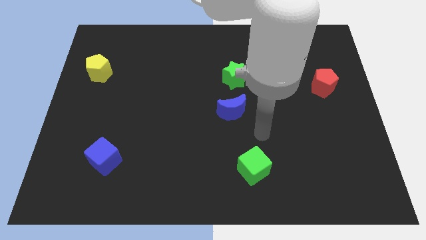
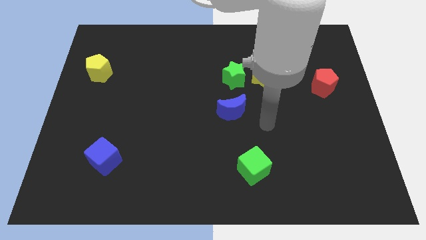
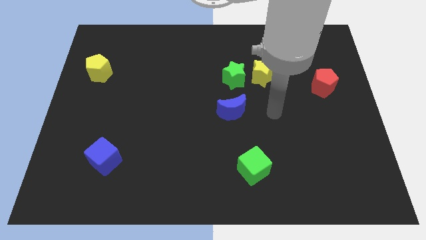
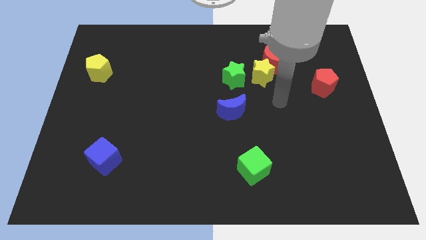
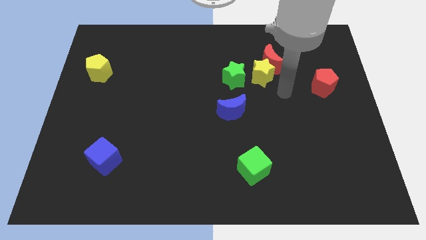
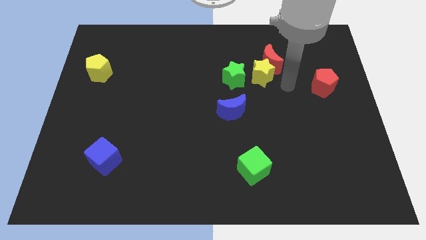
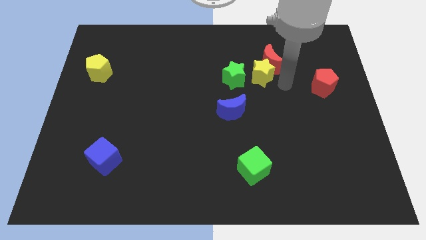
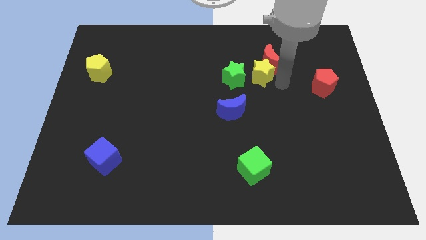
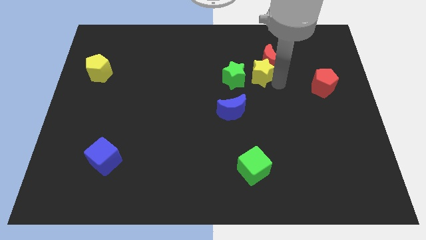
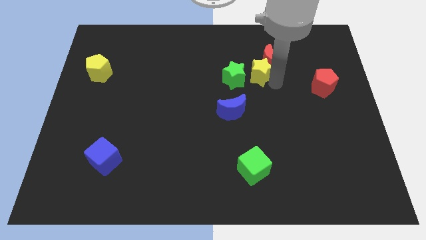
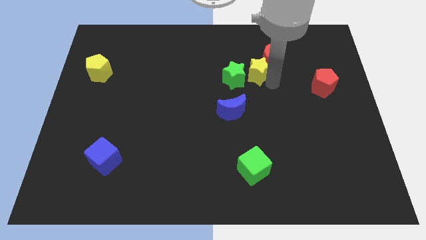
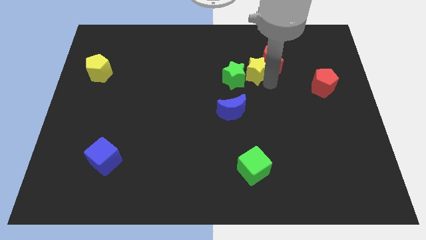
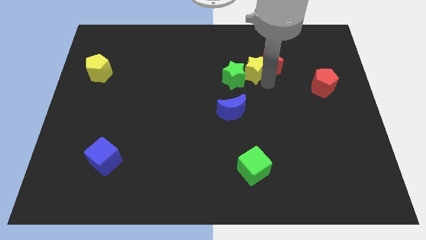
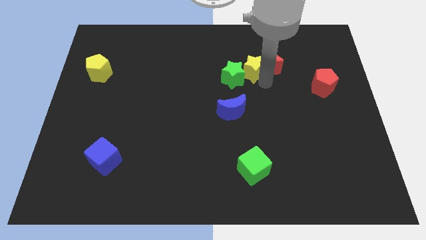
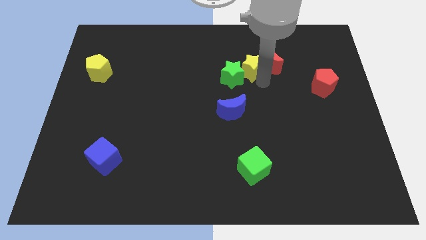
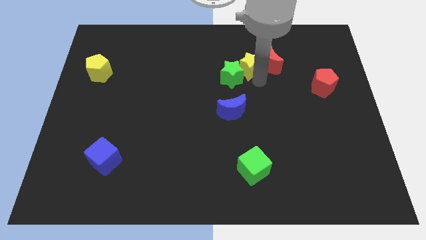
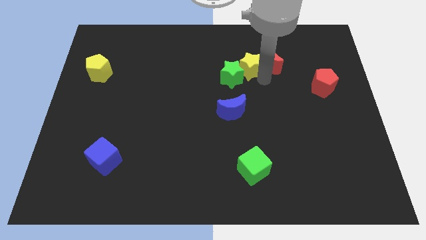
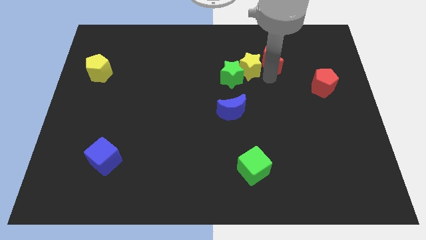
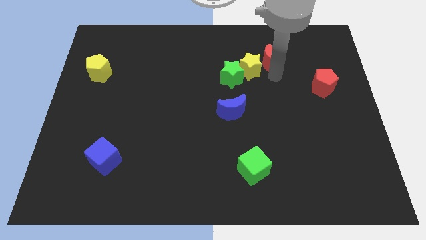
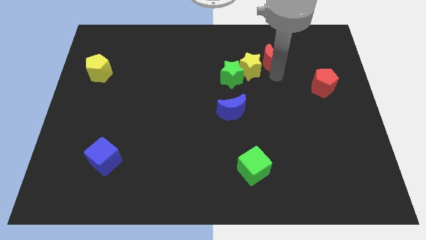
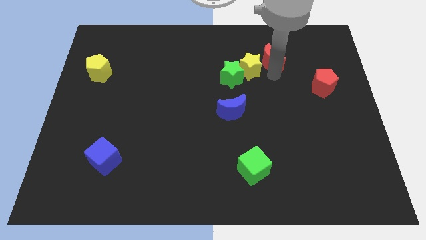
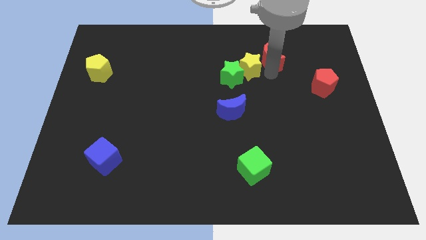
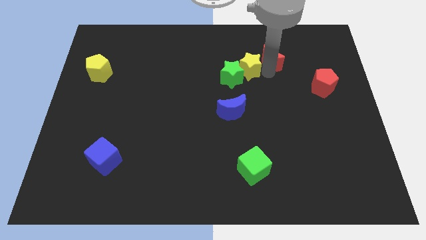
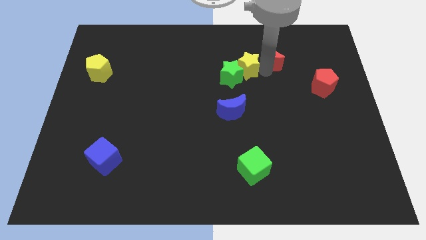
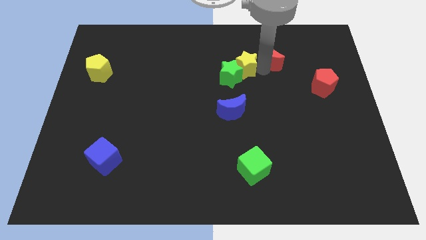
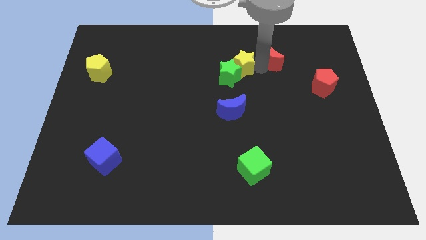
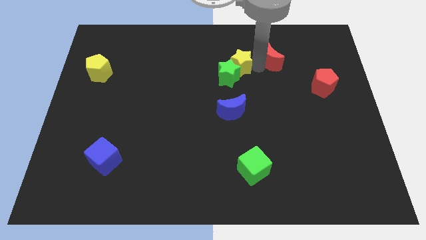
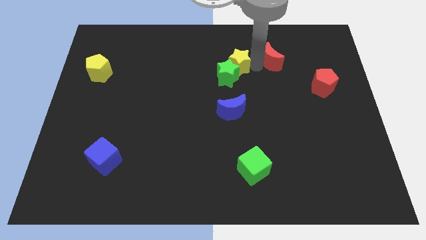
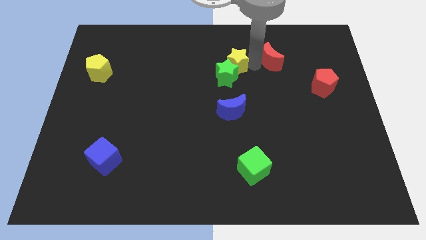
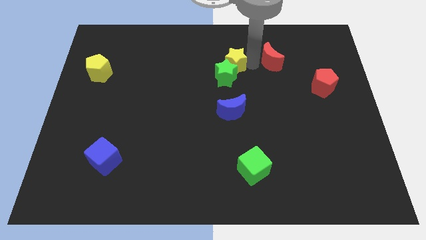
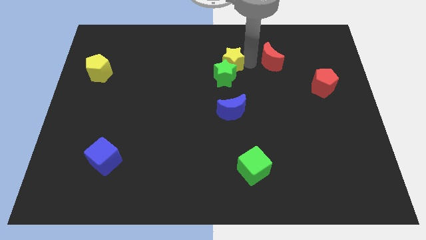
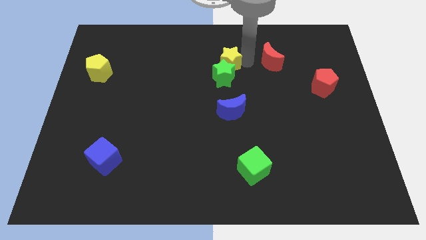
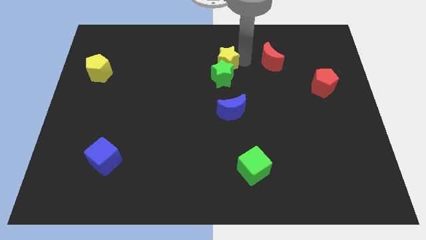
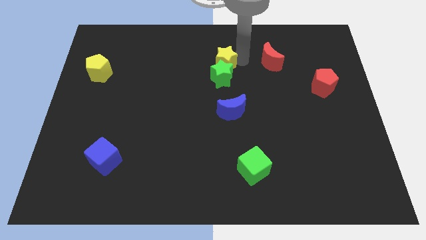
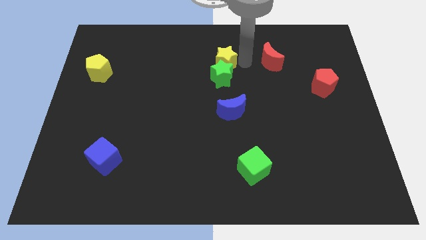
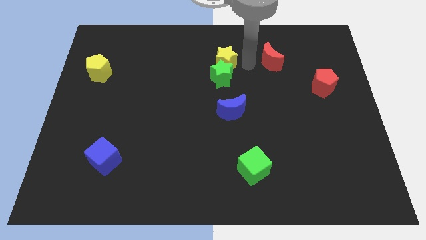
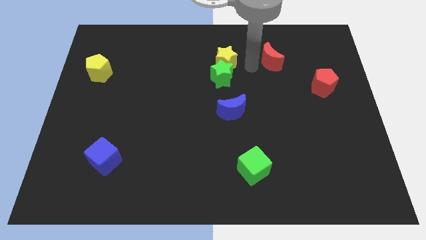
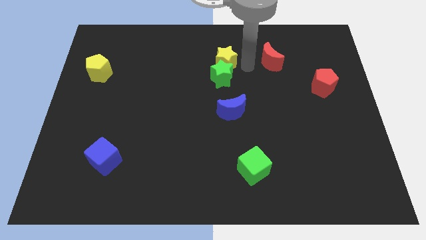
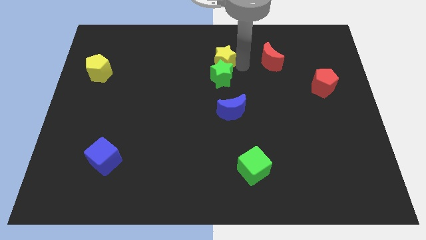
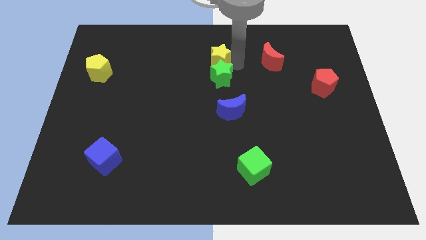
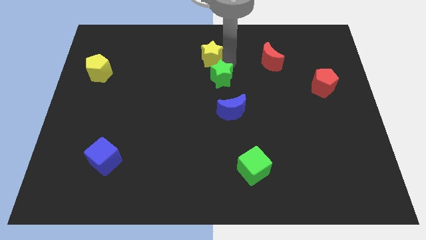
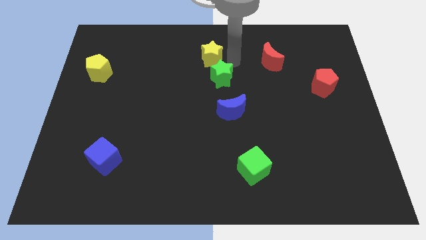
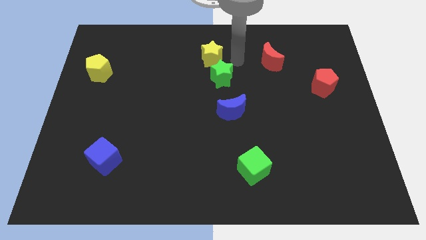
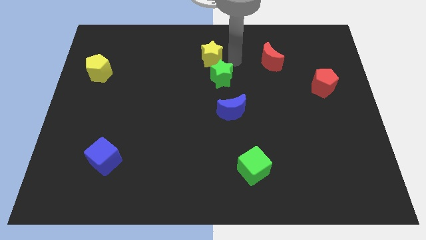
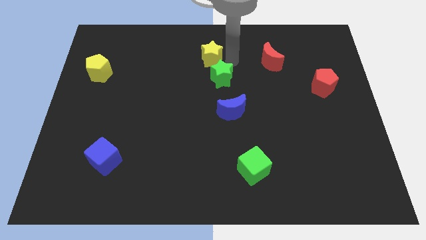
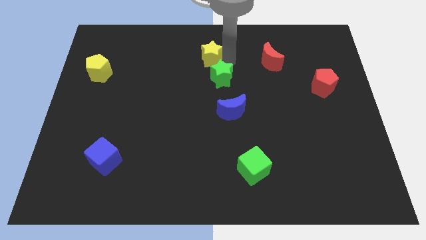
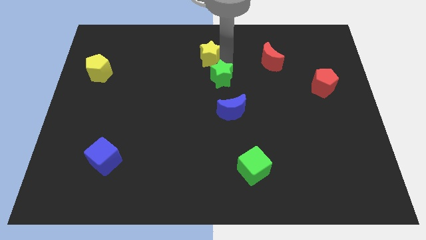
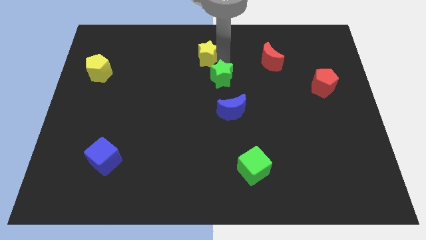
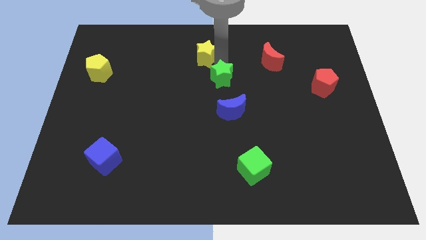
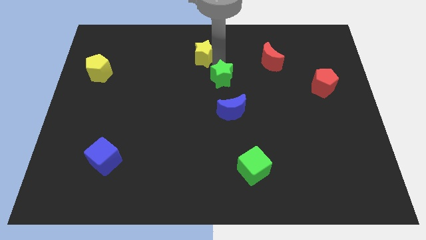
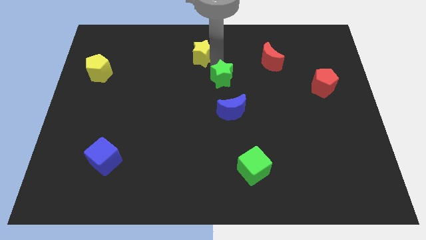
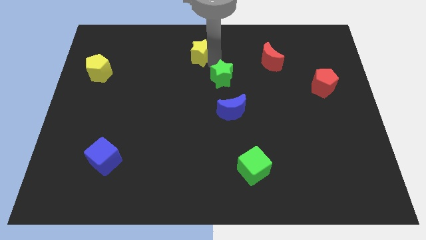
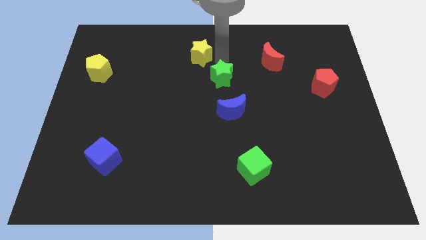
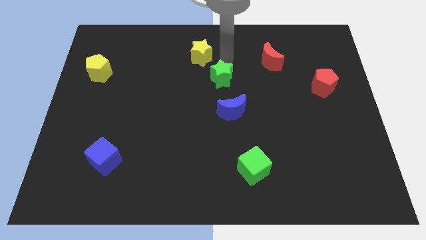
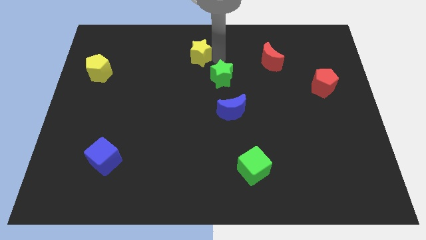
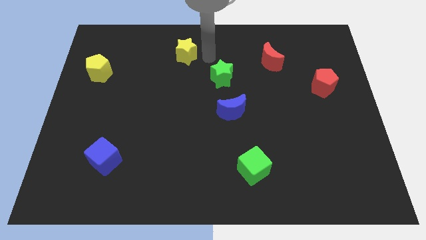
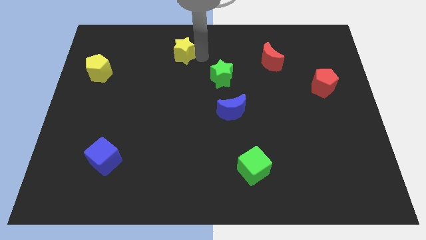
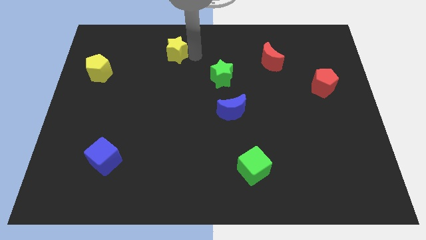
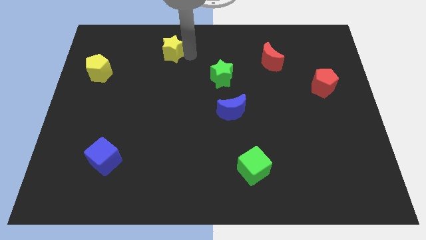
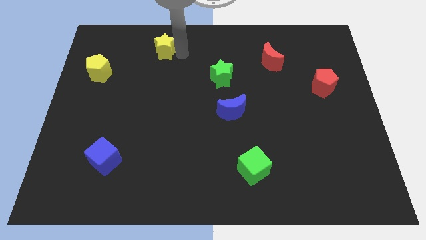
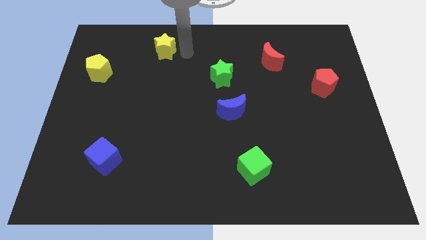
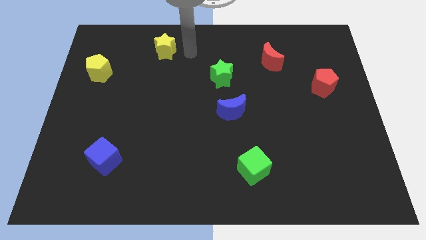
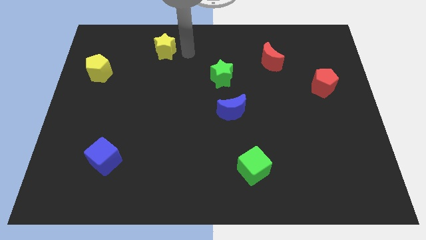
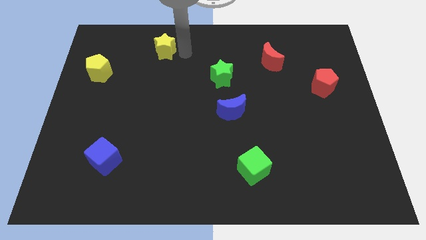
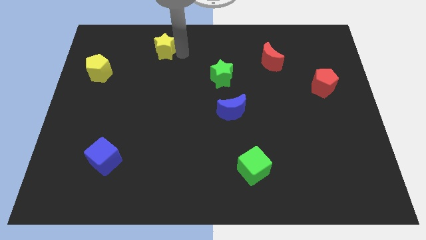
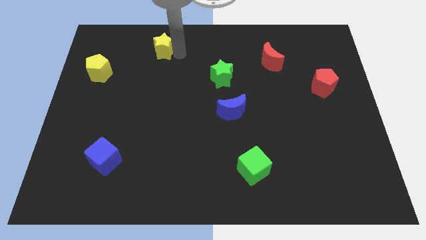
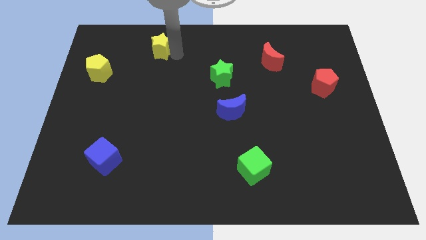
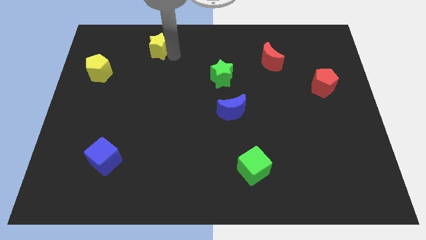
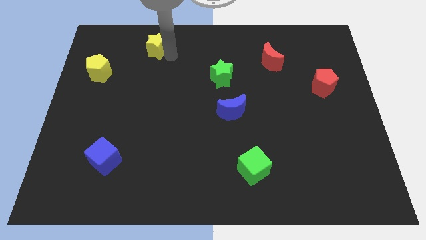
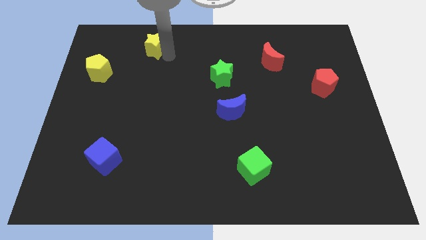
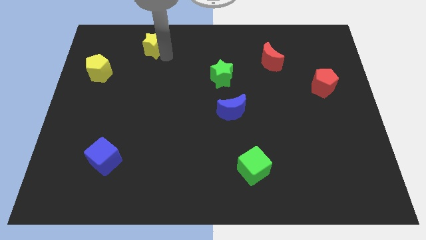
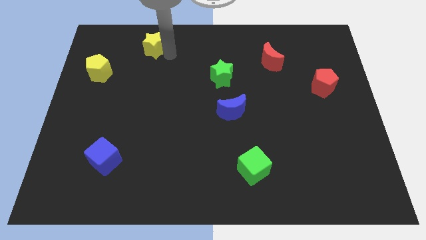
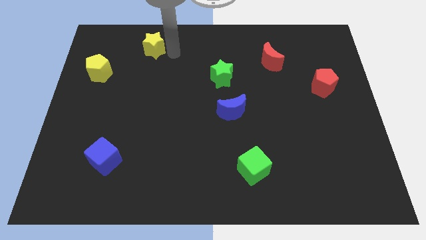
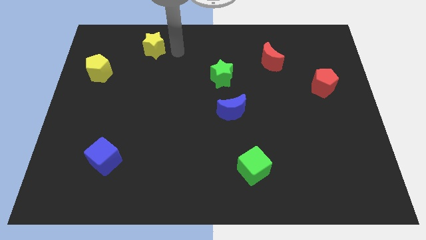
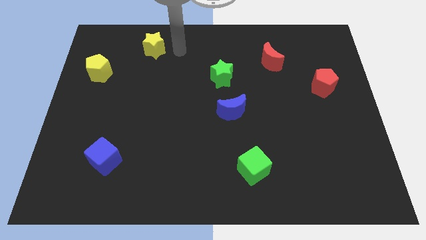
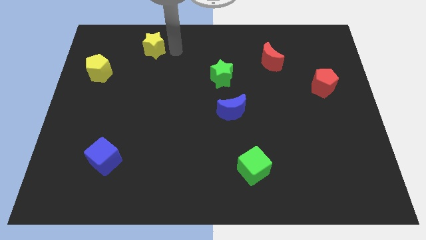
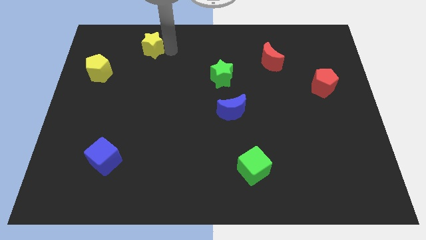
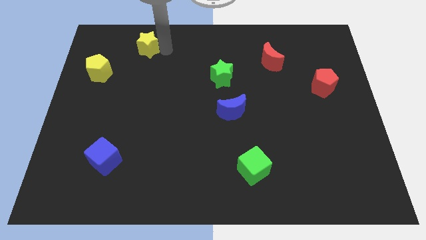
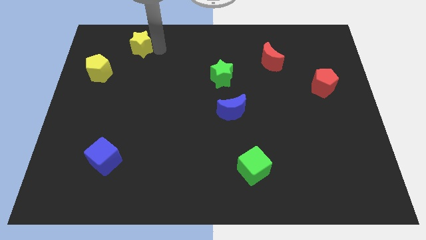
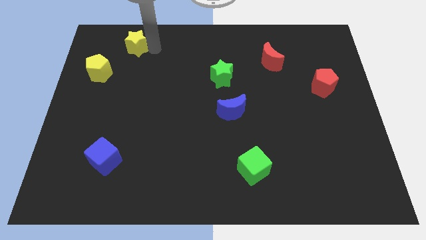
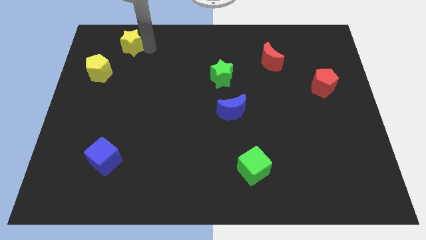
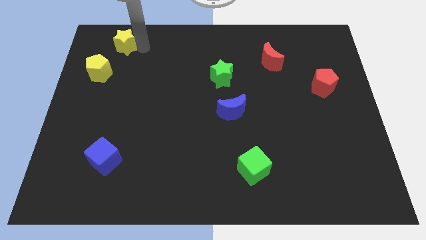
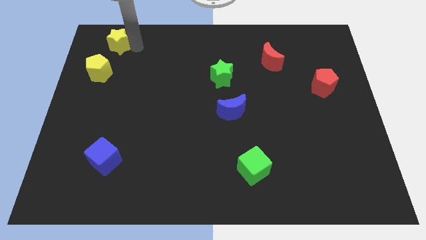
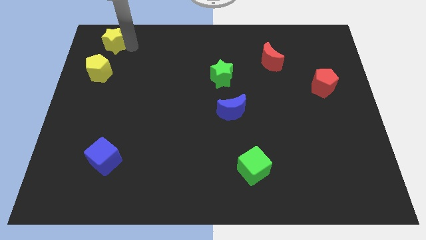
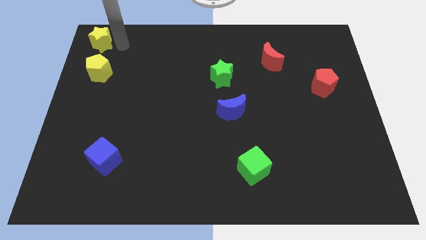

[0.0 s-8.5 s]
slide the yellow star to the top left of the board
